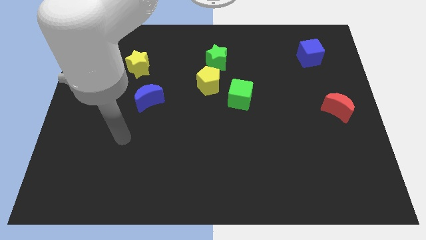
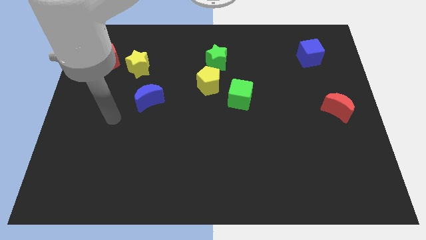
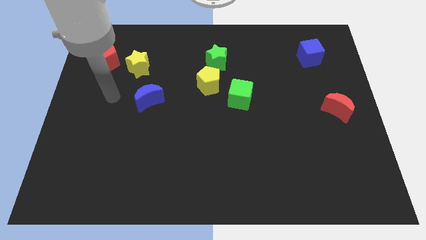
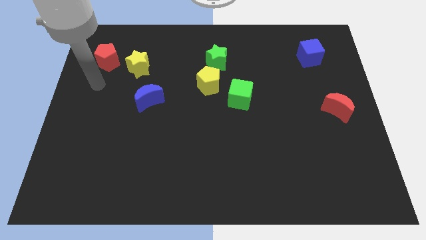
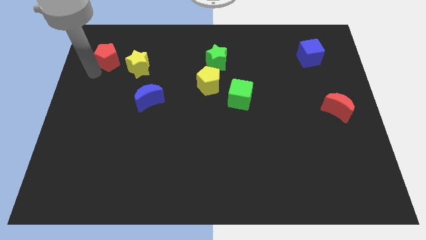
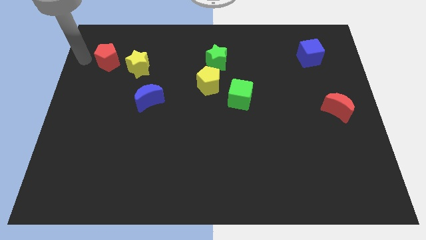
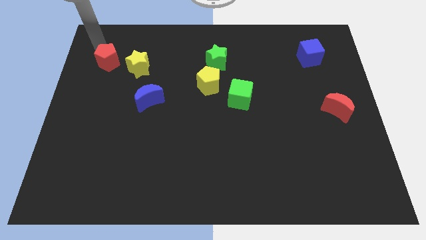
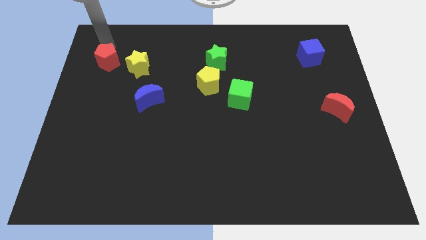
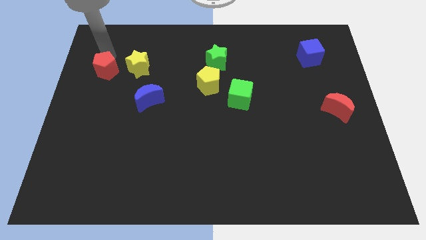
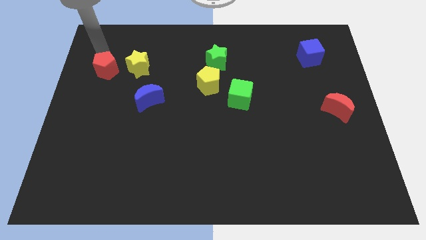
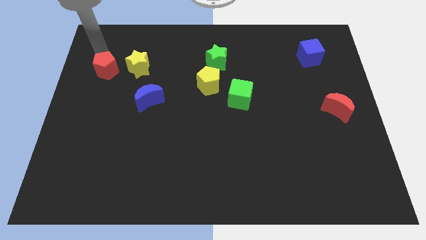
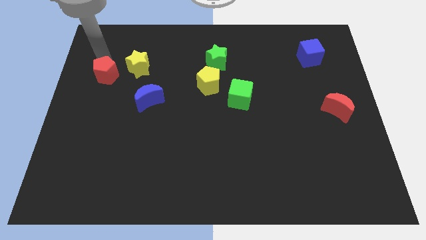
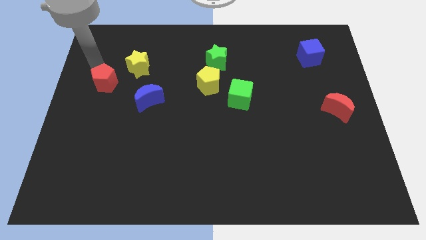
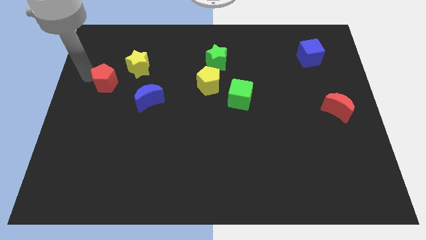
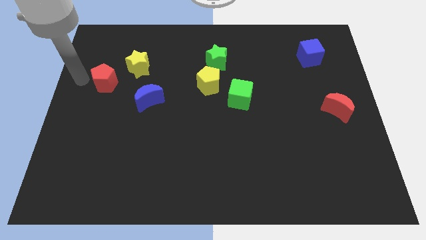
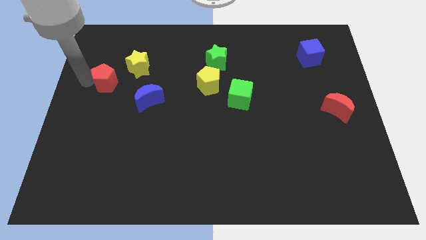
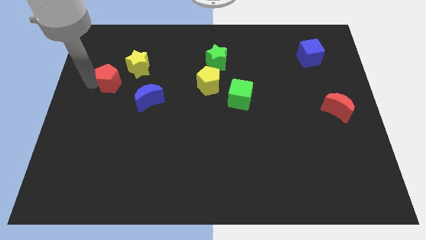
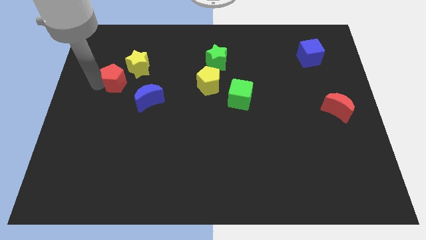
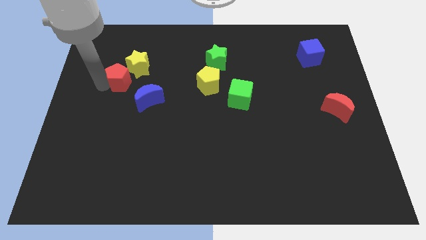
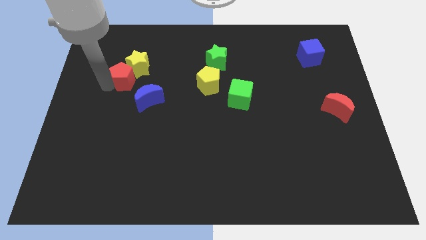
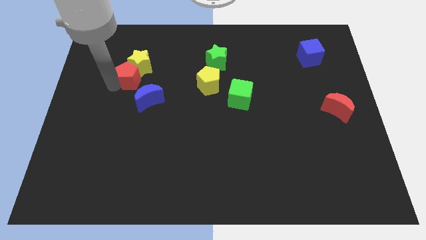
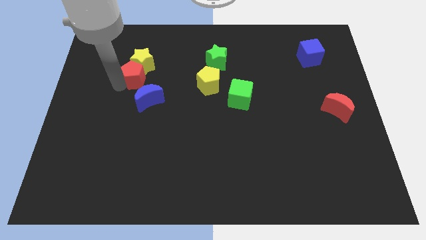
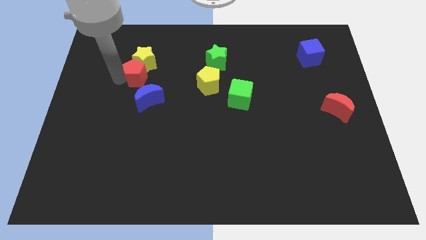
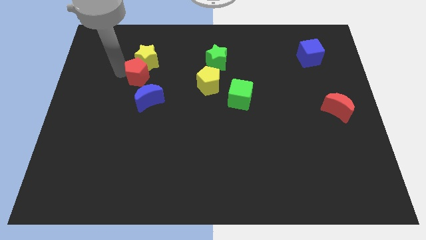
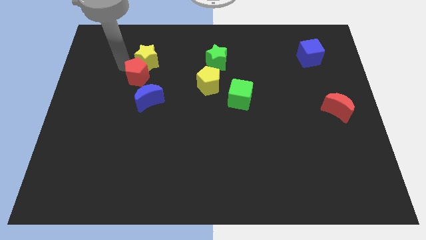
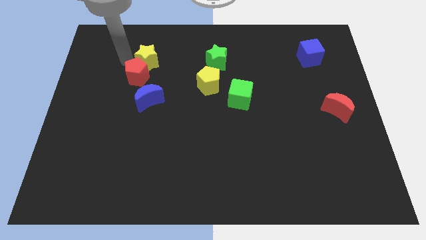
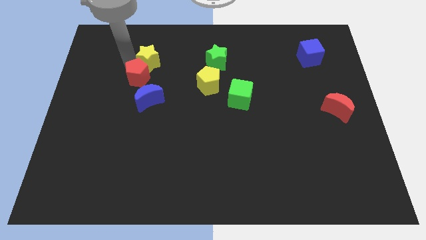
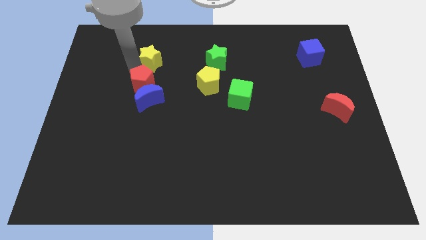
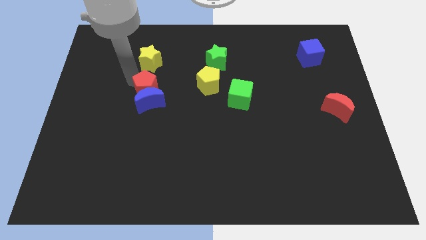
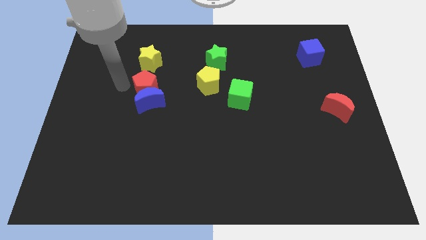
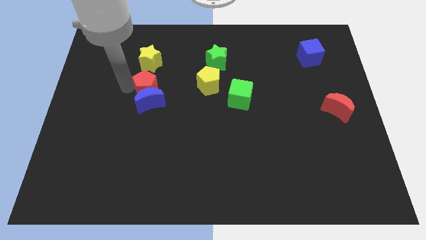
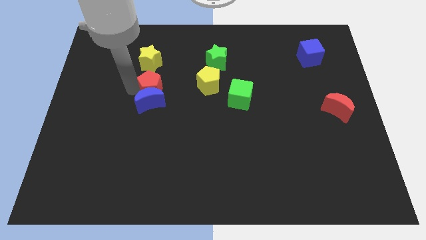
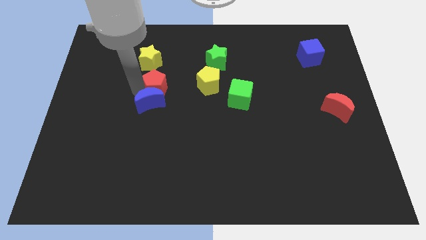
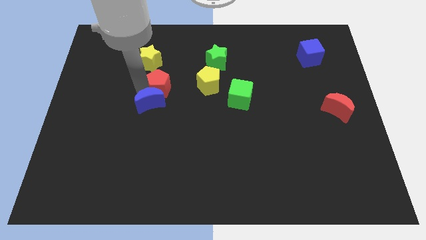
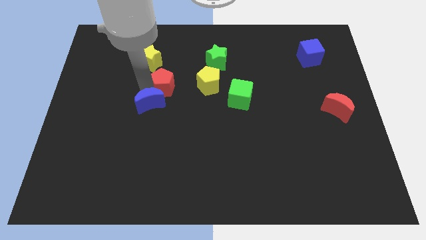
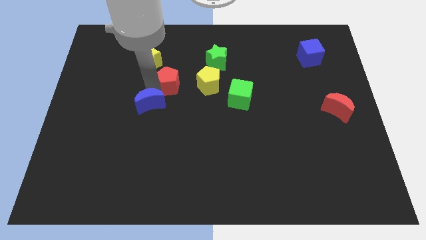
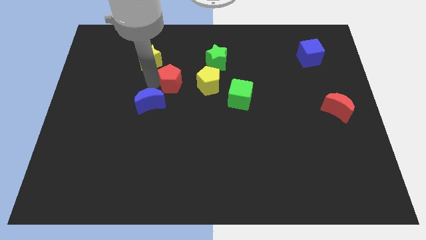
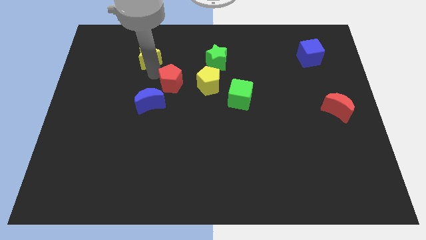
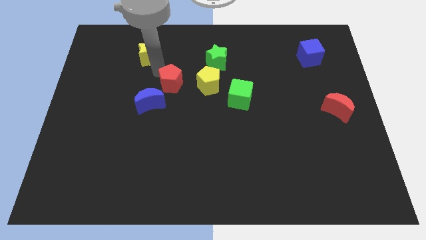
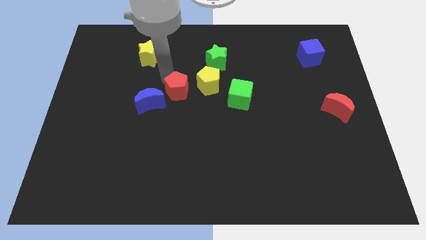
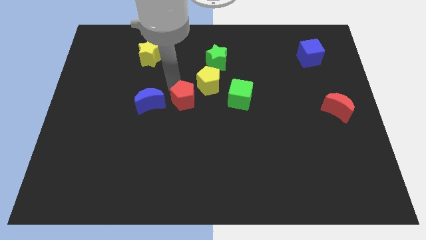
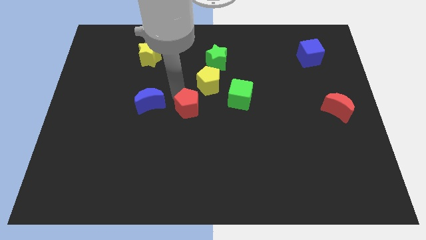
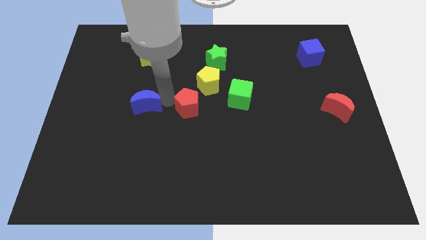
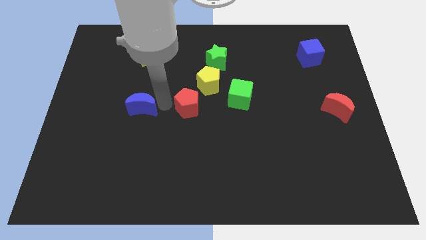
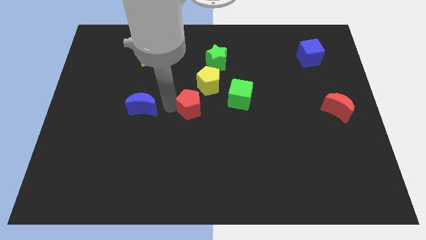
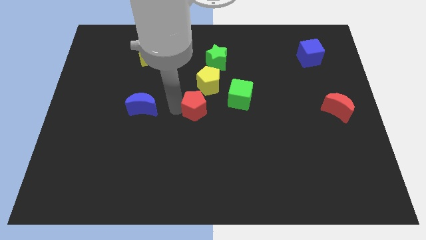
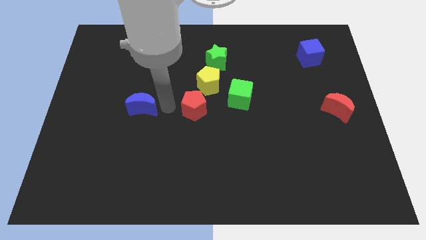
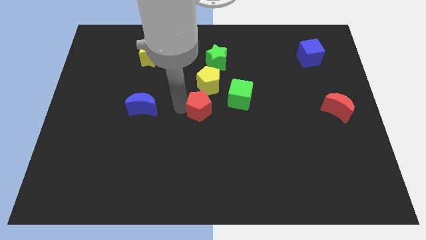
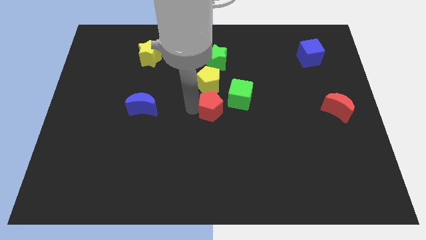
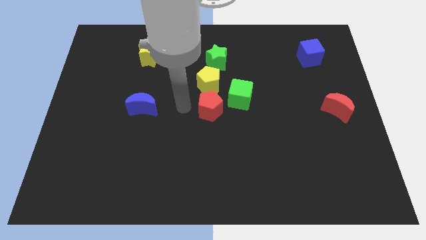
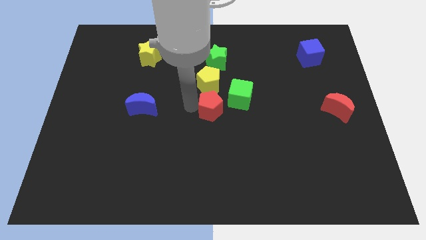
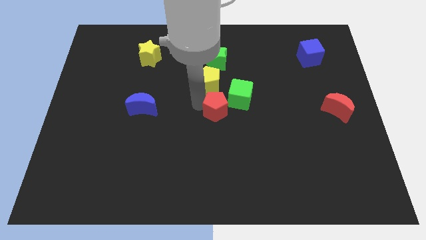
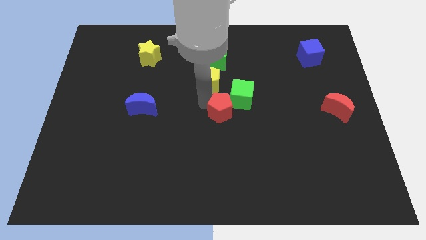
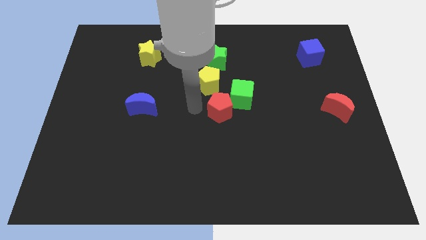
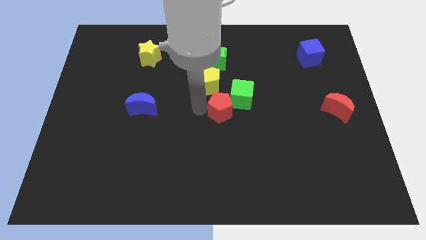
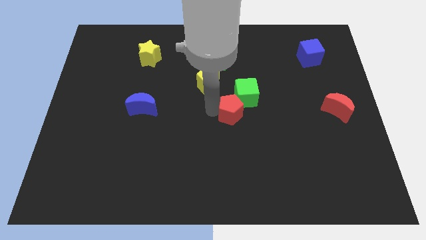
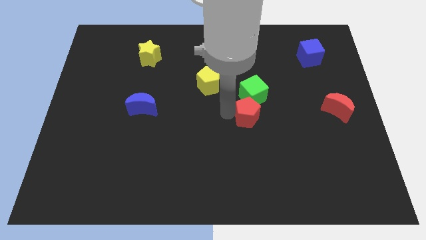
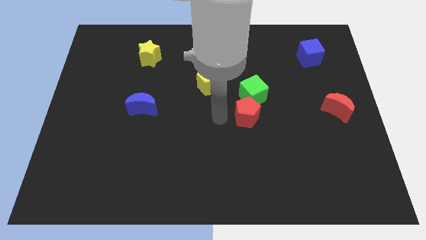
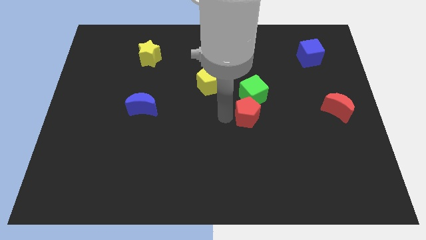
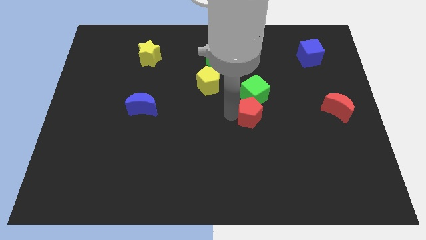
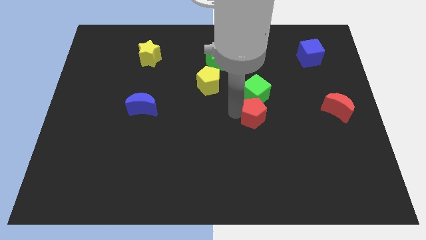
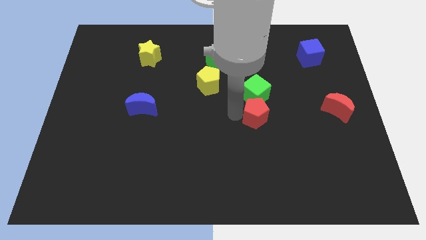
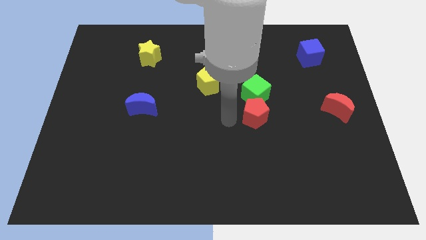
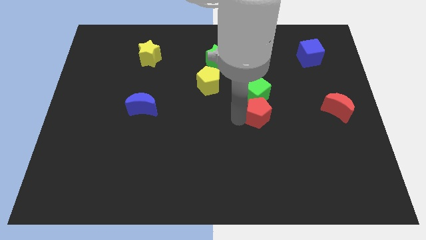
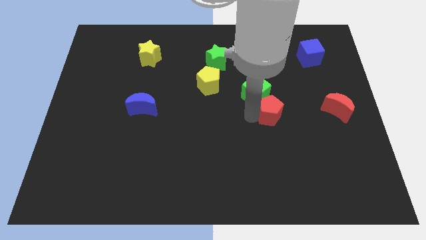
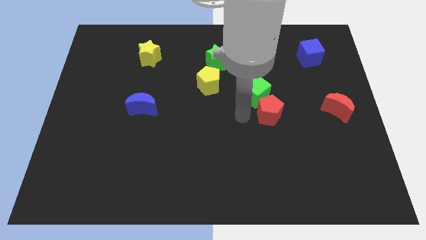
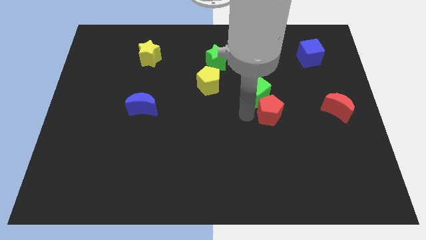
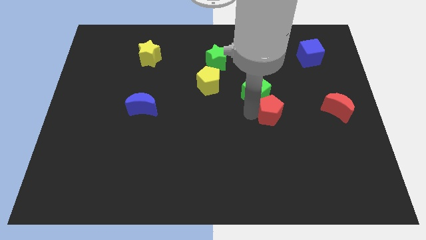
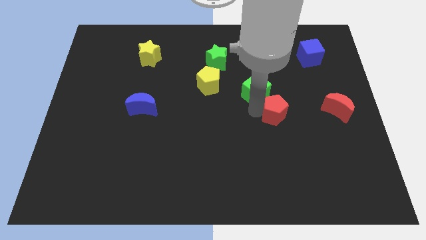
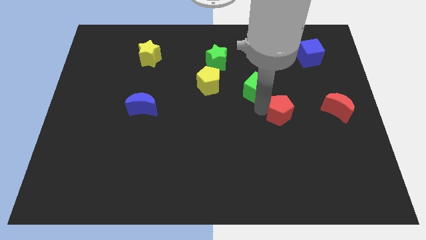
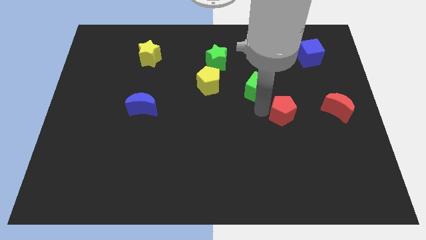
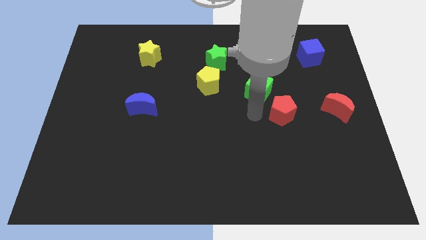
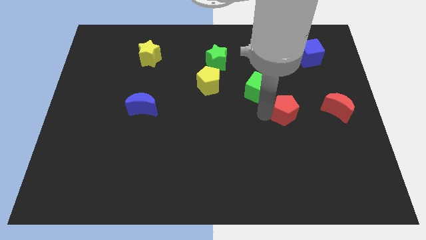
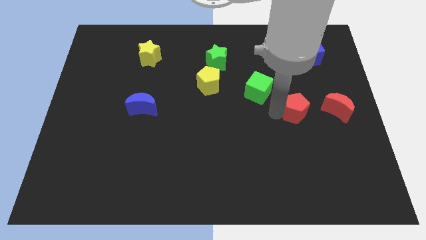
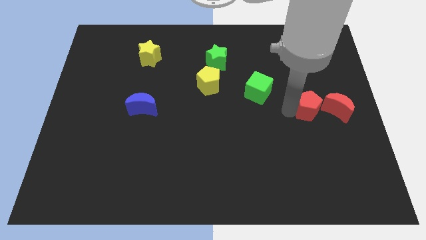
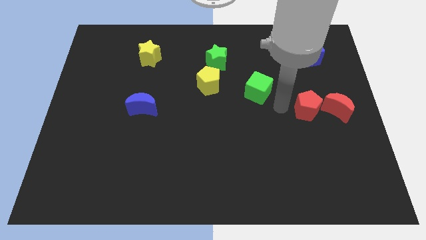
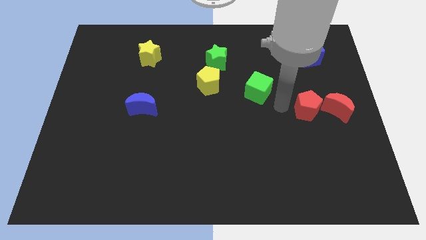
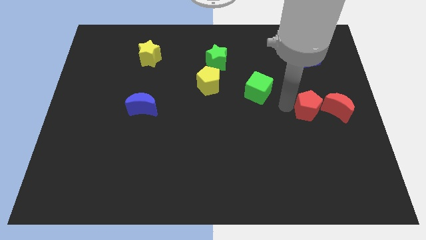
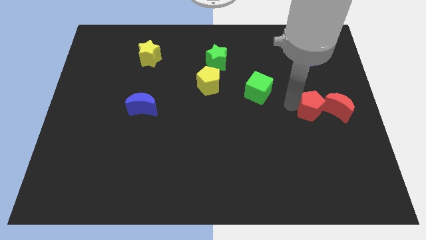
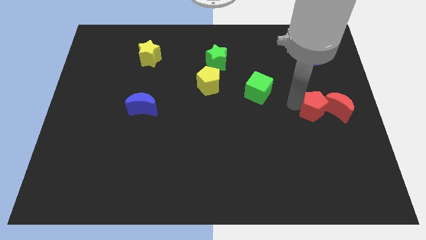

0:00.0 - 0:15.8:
push the red pentagon next to the red moon
